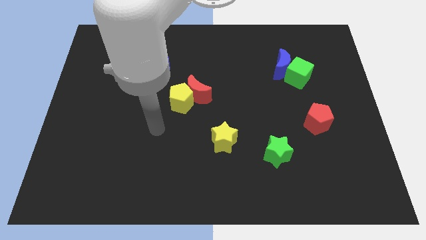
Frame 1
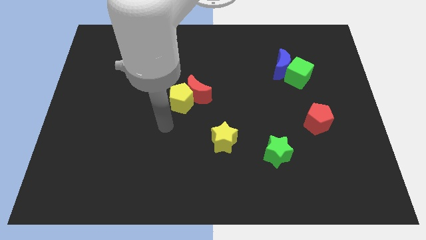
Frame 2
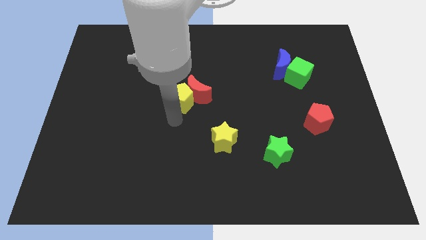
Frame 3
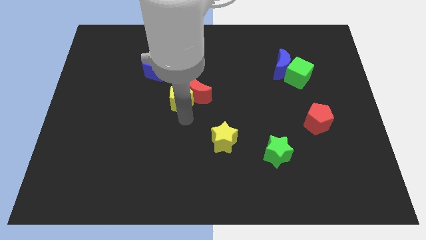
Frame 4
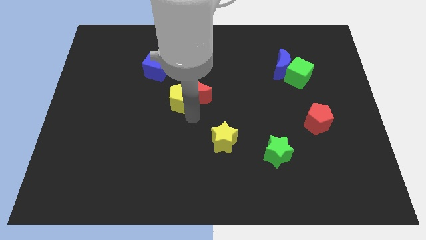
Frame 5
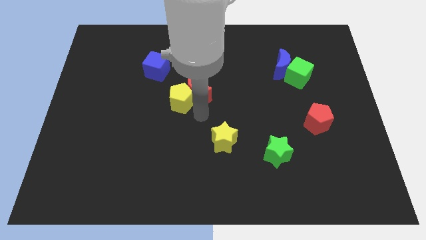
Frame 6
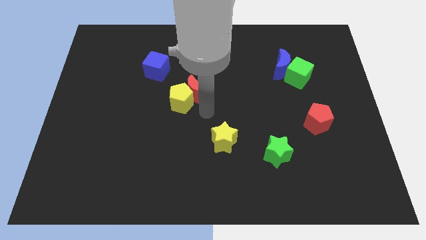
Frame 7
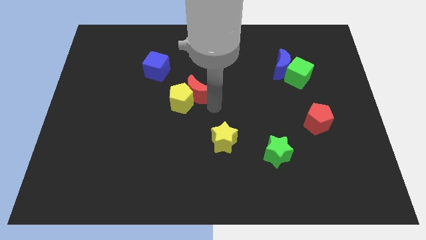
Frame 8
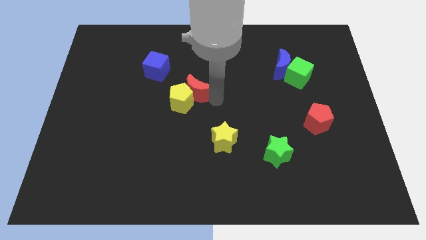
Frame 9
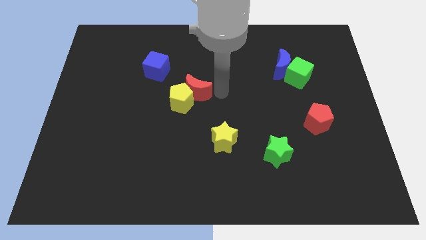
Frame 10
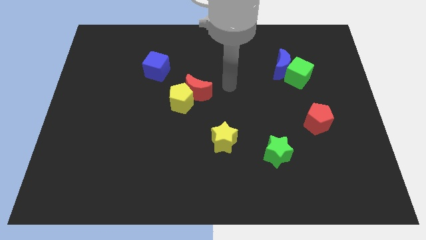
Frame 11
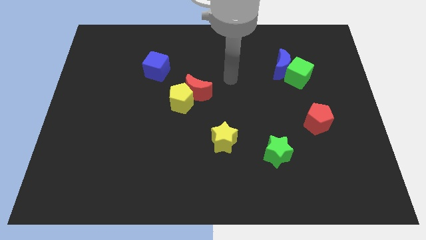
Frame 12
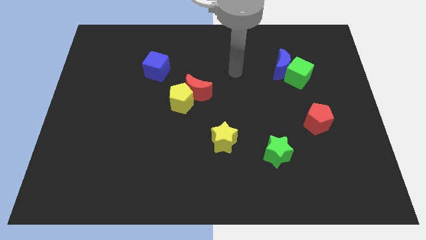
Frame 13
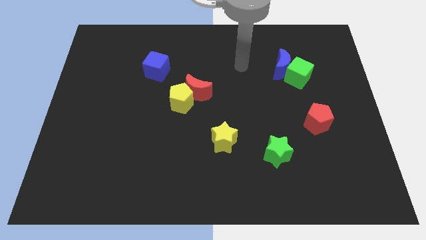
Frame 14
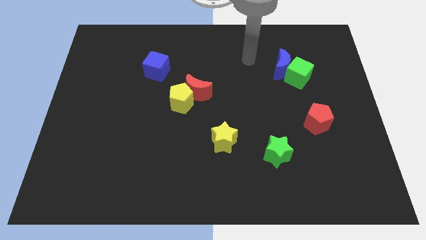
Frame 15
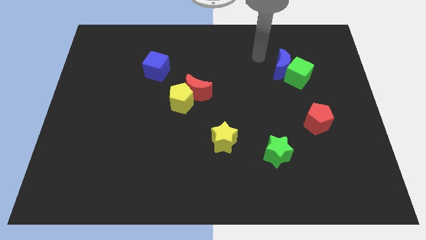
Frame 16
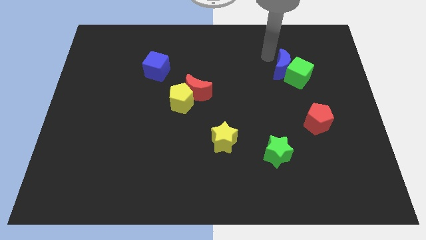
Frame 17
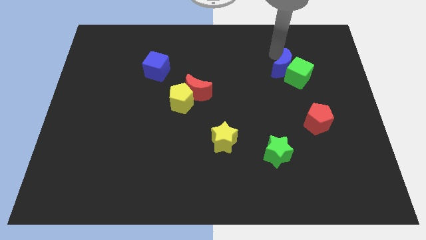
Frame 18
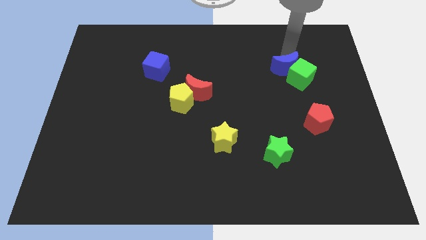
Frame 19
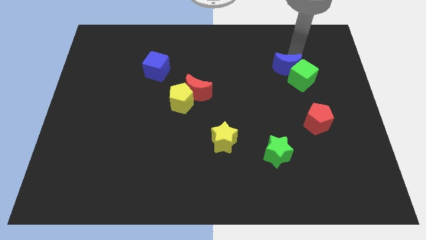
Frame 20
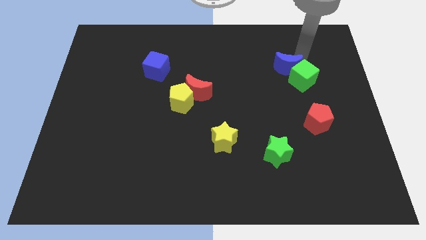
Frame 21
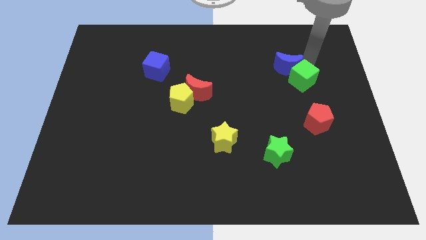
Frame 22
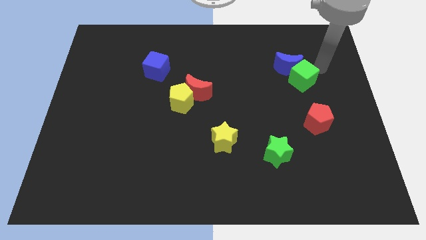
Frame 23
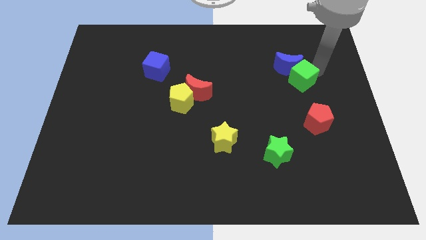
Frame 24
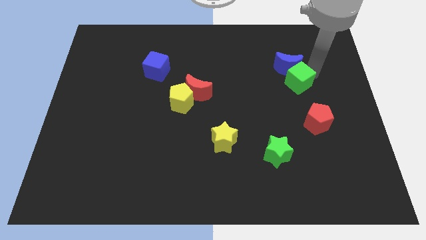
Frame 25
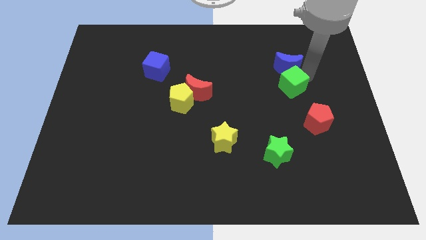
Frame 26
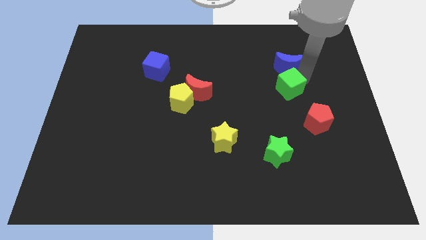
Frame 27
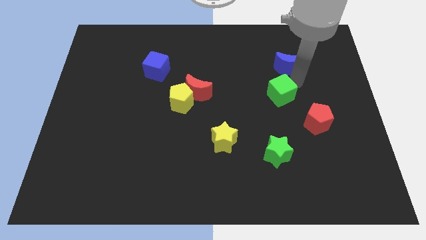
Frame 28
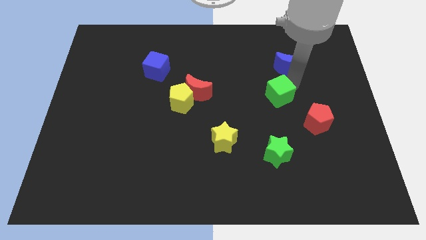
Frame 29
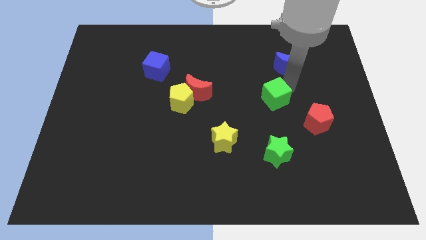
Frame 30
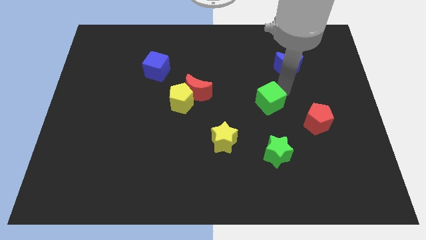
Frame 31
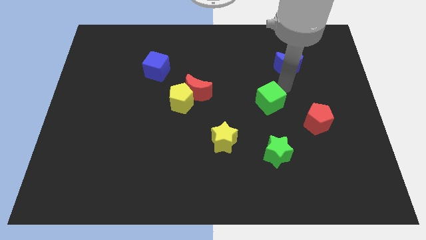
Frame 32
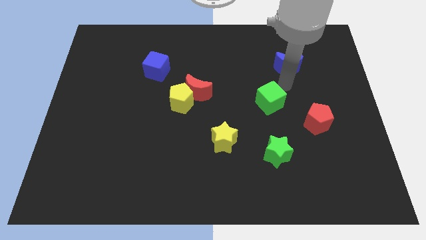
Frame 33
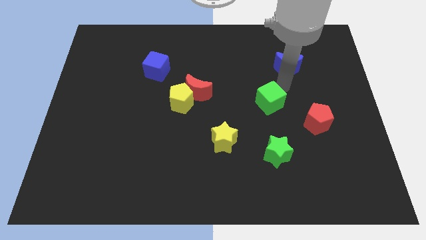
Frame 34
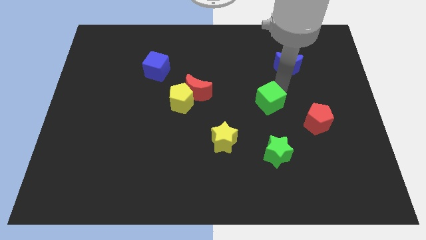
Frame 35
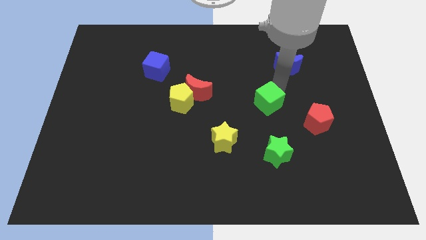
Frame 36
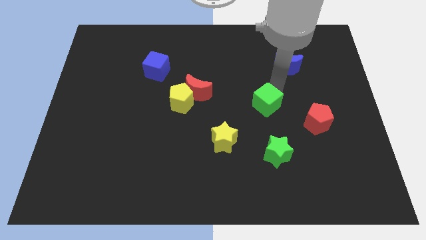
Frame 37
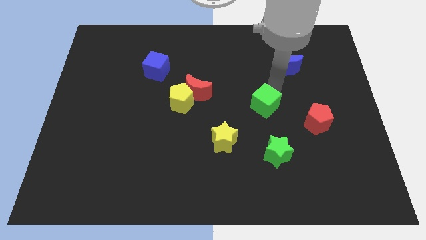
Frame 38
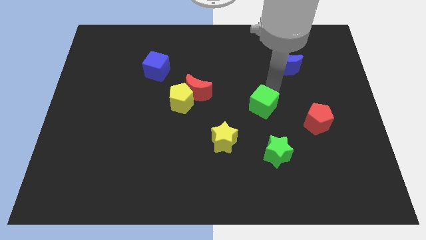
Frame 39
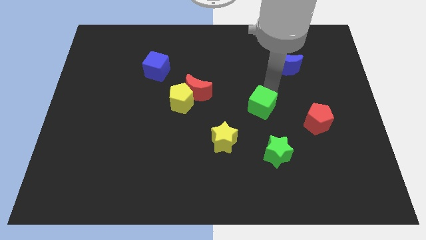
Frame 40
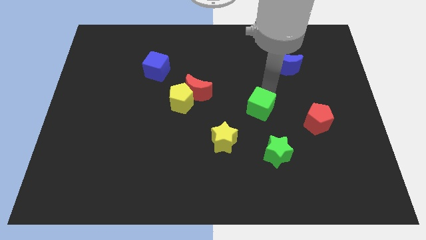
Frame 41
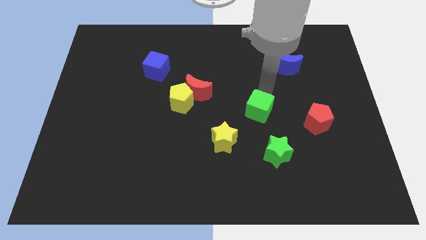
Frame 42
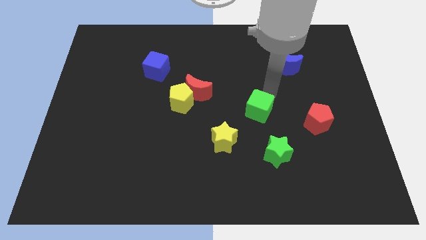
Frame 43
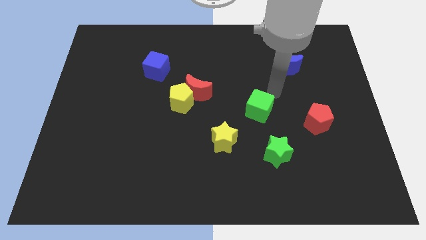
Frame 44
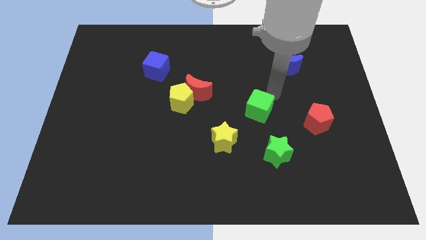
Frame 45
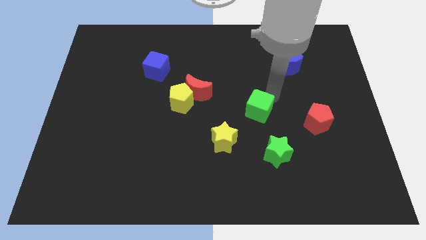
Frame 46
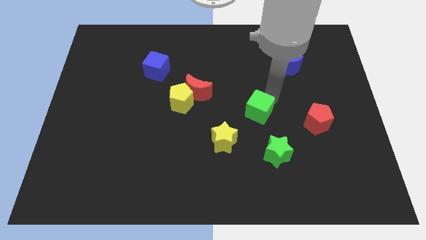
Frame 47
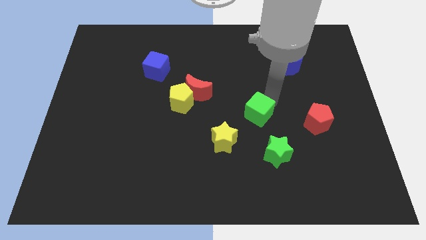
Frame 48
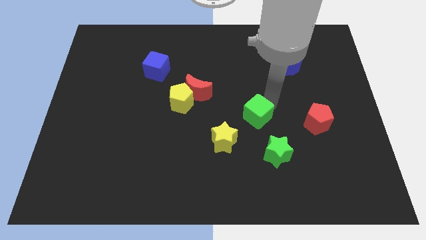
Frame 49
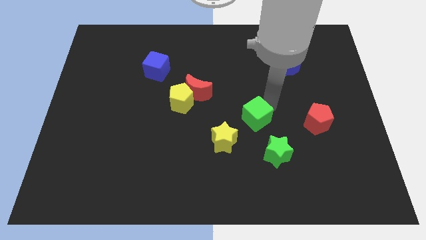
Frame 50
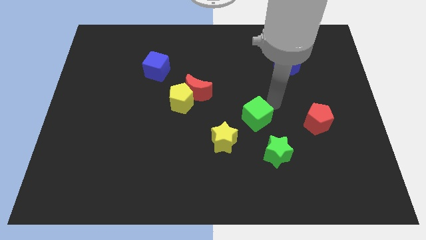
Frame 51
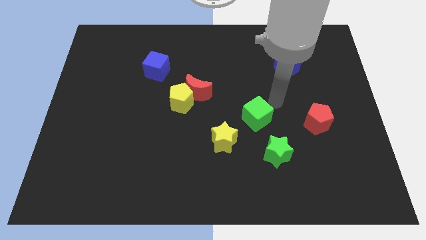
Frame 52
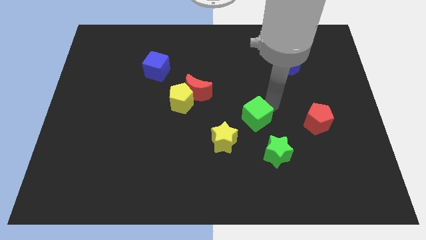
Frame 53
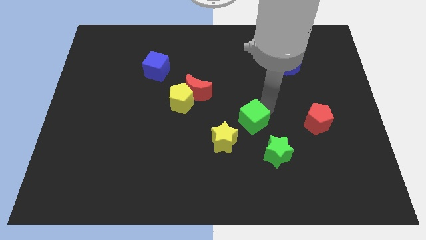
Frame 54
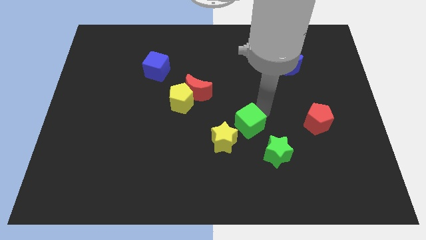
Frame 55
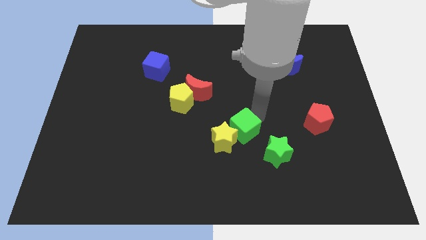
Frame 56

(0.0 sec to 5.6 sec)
slide the green cube to the yellow star

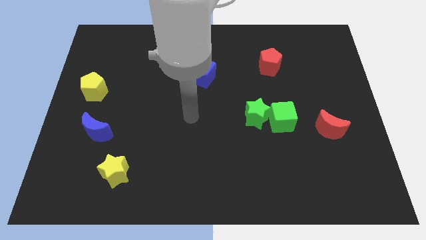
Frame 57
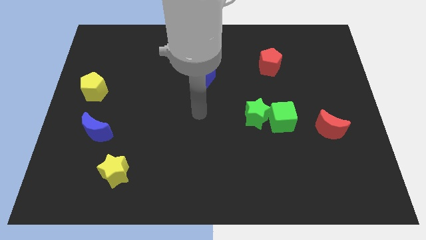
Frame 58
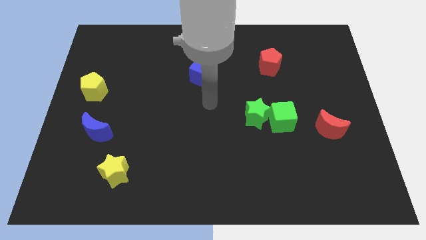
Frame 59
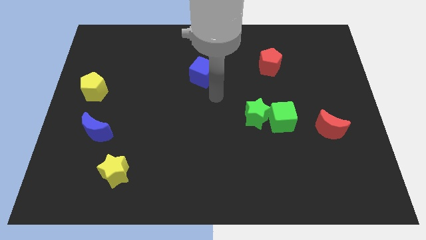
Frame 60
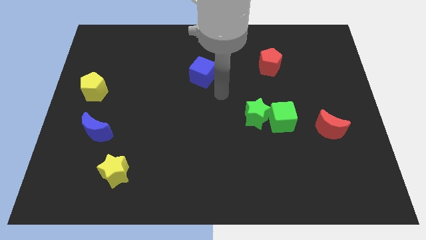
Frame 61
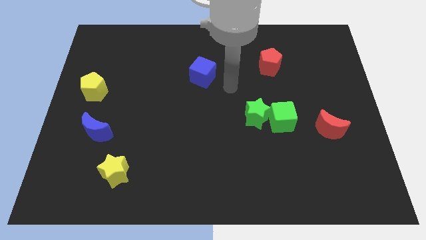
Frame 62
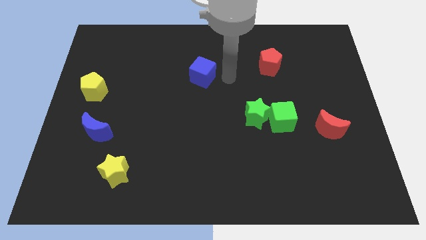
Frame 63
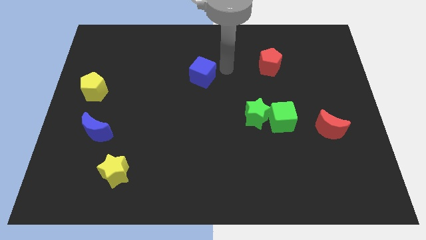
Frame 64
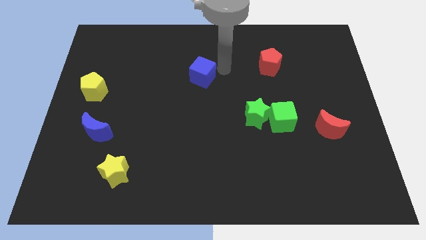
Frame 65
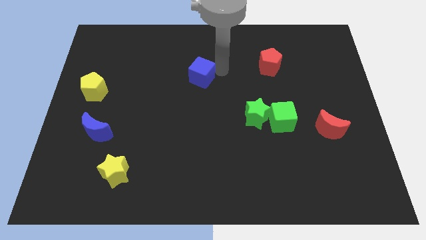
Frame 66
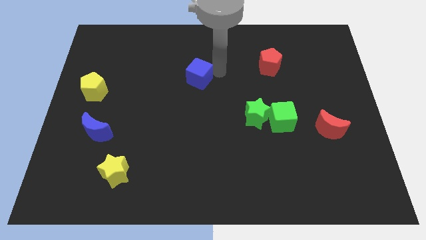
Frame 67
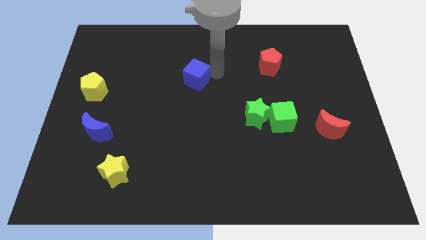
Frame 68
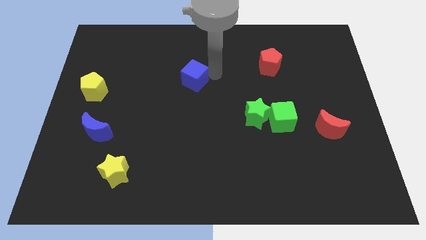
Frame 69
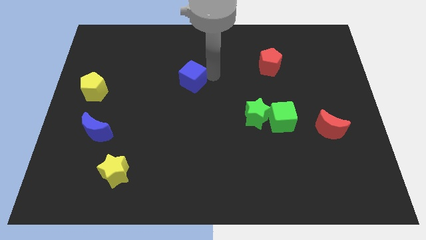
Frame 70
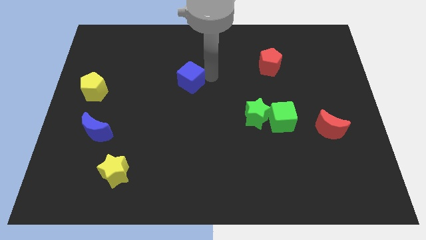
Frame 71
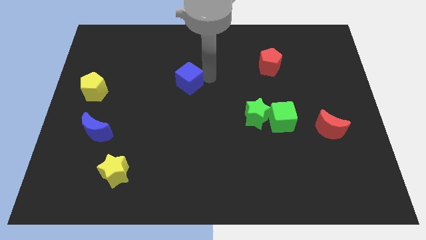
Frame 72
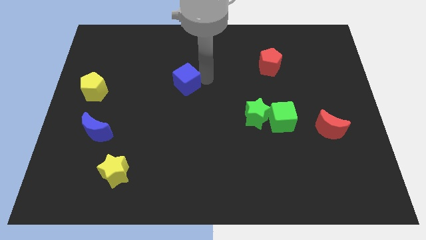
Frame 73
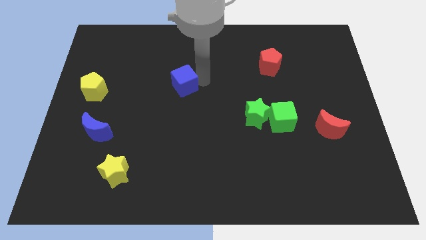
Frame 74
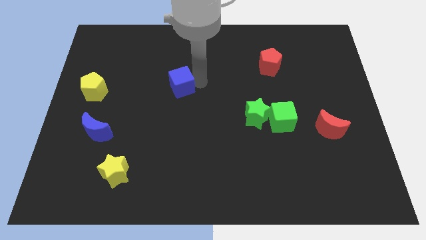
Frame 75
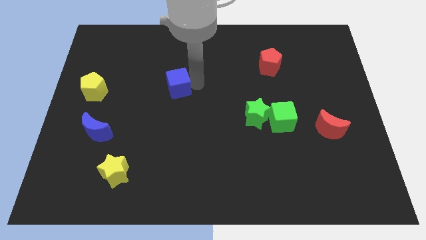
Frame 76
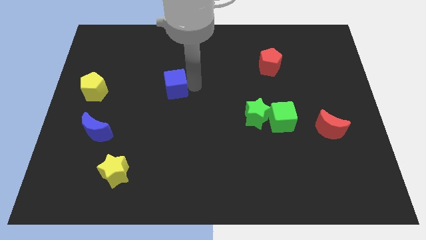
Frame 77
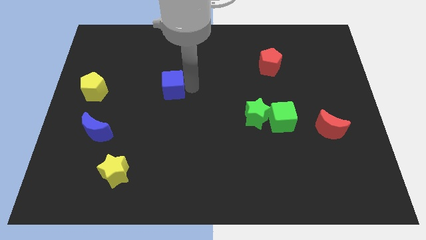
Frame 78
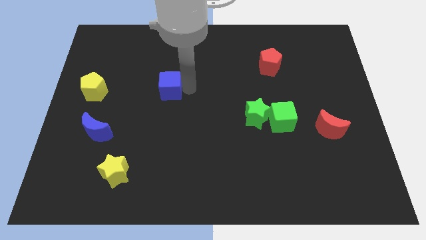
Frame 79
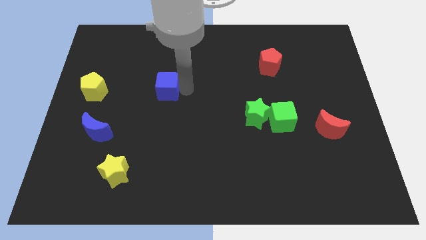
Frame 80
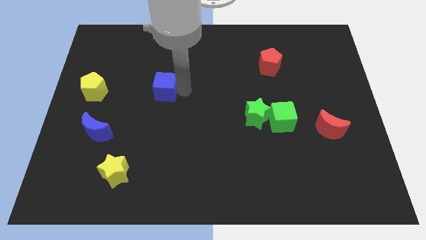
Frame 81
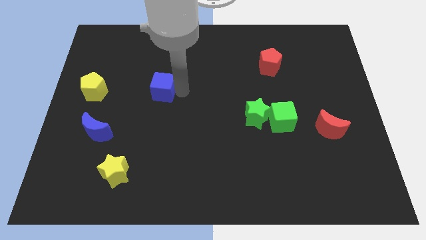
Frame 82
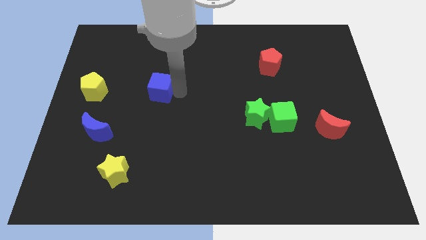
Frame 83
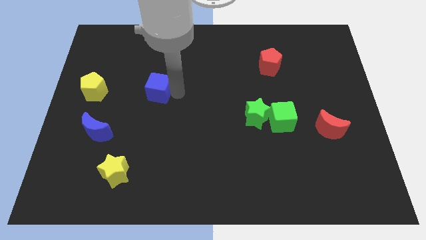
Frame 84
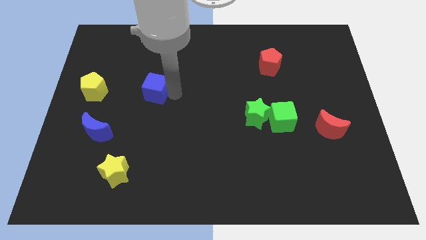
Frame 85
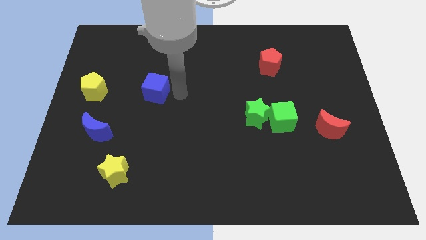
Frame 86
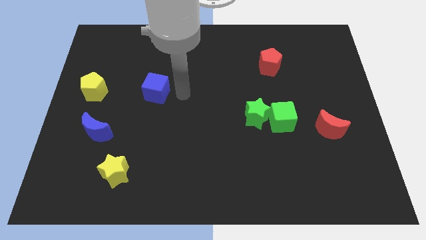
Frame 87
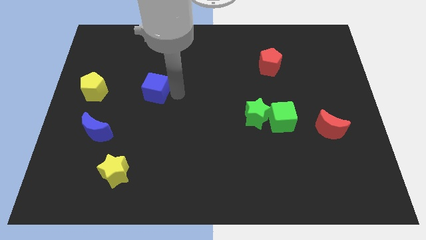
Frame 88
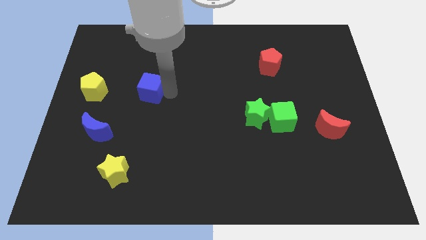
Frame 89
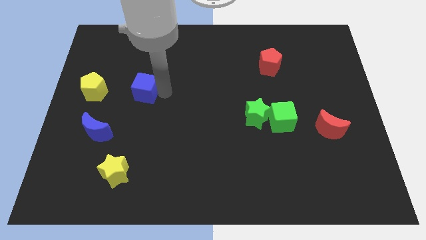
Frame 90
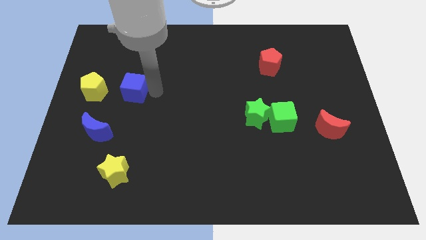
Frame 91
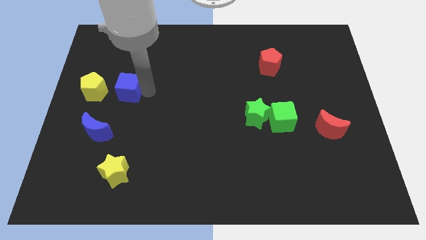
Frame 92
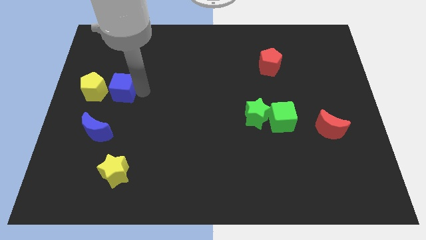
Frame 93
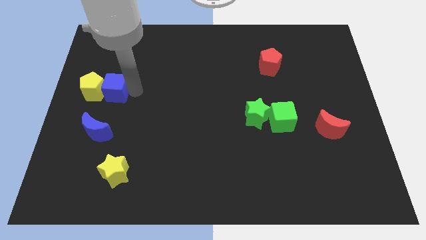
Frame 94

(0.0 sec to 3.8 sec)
put the blue cube next to the yellow pentagon
